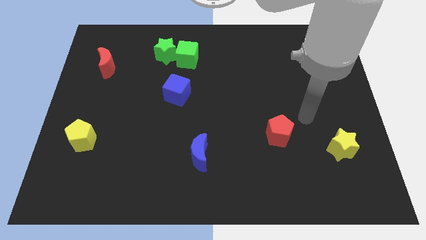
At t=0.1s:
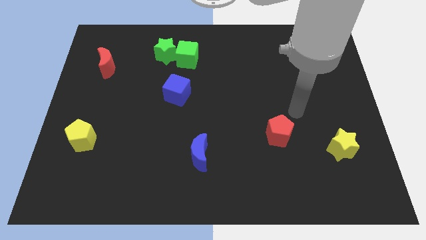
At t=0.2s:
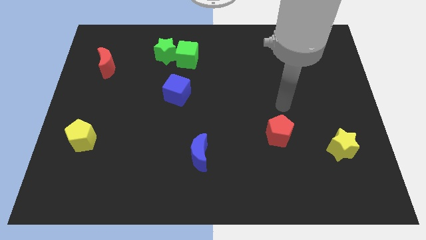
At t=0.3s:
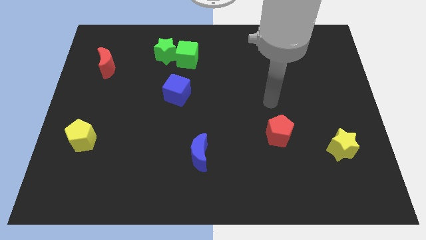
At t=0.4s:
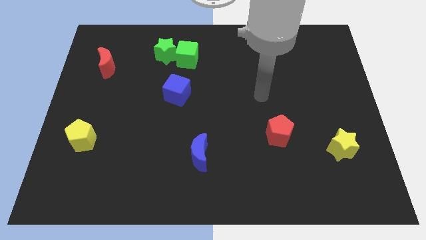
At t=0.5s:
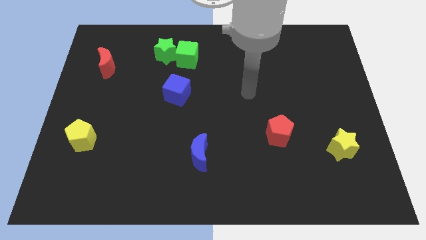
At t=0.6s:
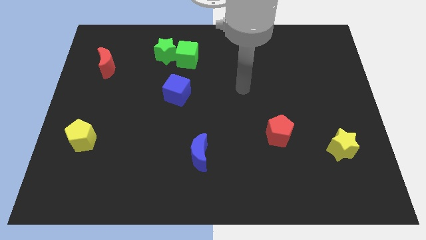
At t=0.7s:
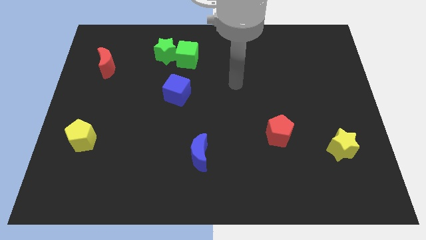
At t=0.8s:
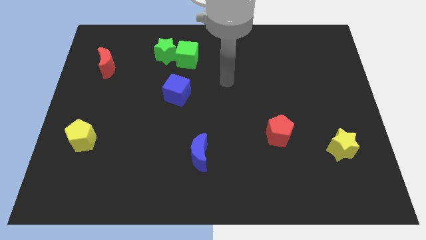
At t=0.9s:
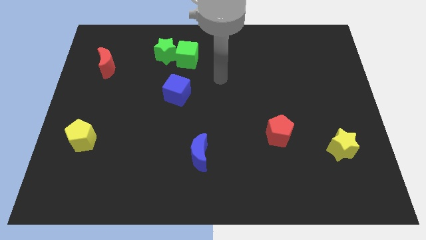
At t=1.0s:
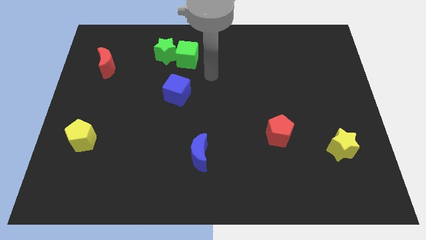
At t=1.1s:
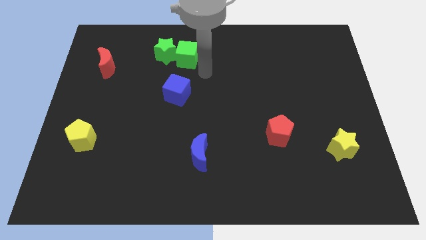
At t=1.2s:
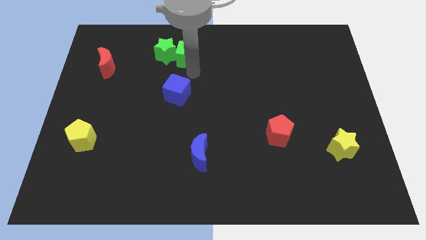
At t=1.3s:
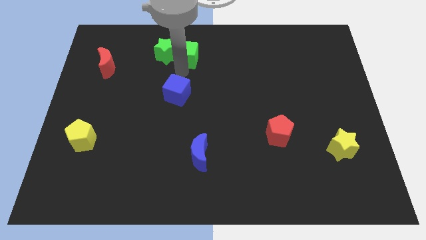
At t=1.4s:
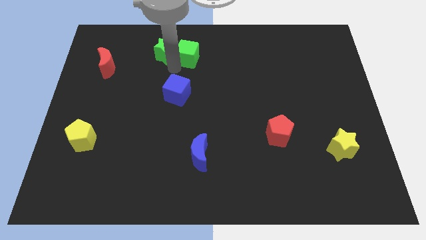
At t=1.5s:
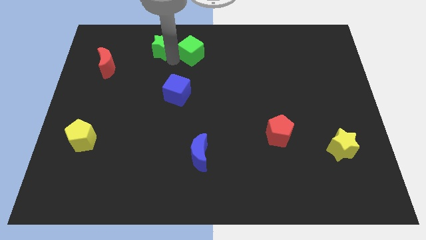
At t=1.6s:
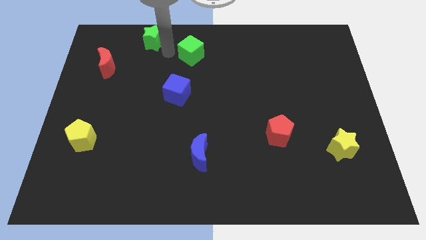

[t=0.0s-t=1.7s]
move the green cube away from the green star

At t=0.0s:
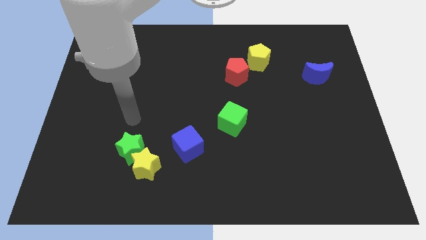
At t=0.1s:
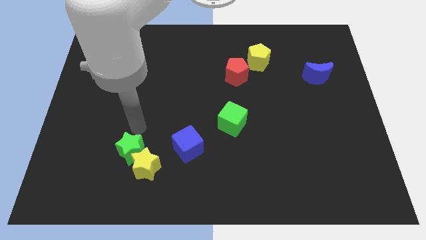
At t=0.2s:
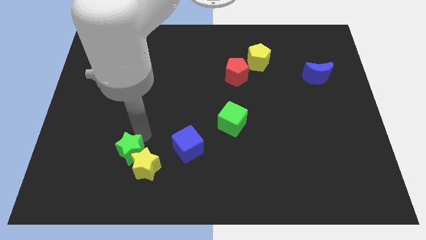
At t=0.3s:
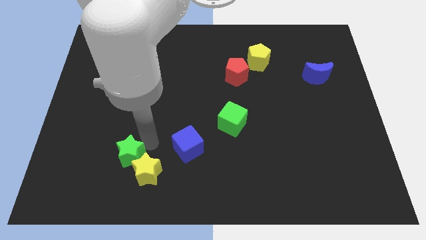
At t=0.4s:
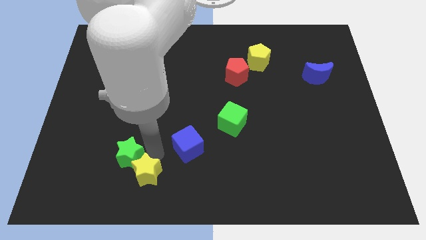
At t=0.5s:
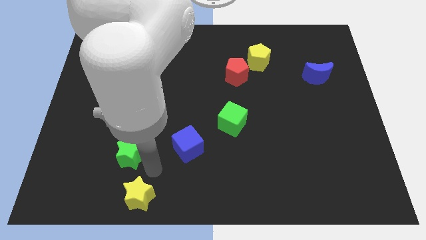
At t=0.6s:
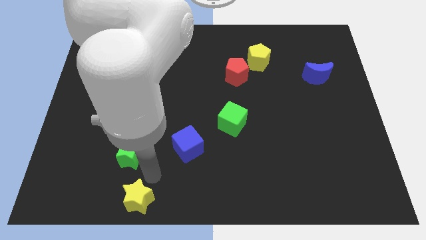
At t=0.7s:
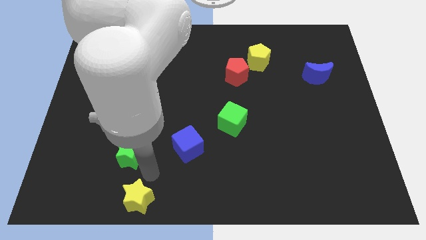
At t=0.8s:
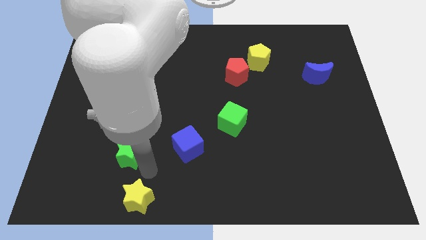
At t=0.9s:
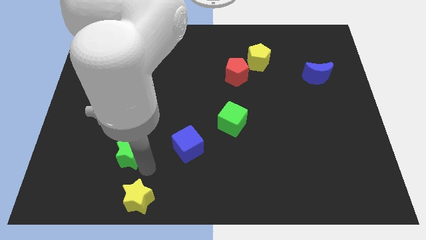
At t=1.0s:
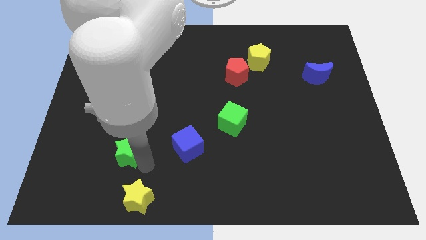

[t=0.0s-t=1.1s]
move the green star away from the yellow star

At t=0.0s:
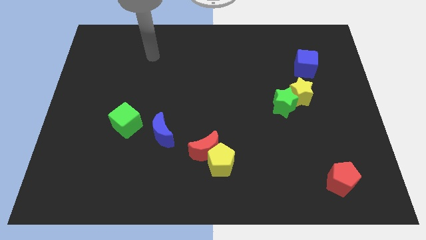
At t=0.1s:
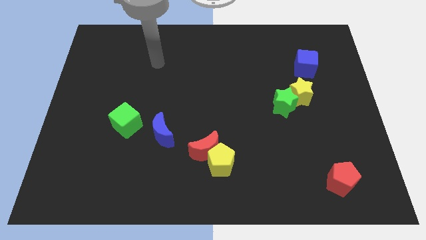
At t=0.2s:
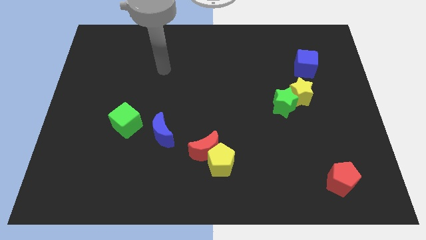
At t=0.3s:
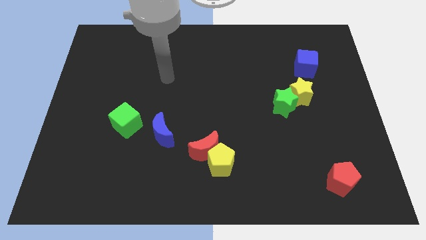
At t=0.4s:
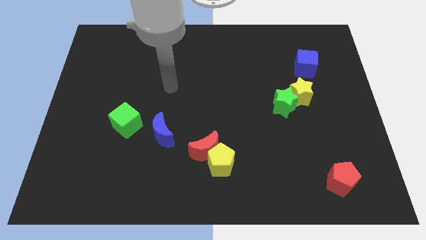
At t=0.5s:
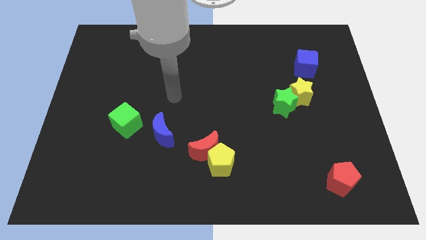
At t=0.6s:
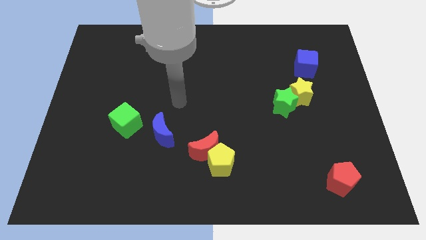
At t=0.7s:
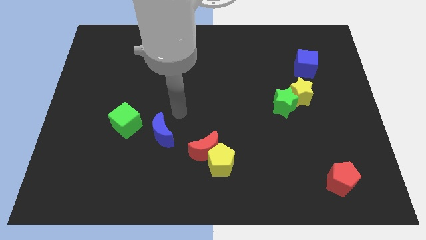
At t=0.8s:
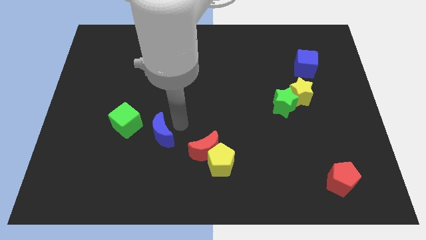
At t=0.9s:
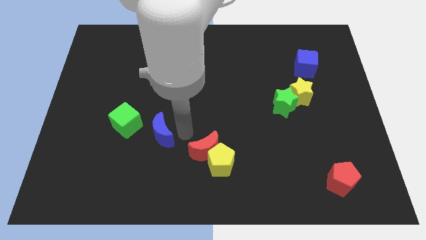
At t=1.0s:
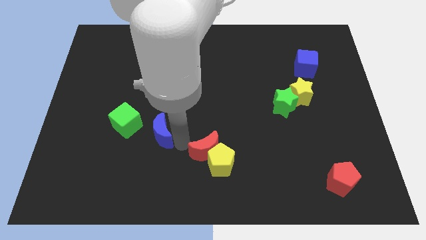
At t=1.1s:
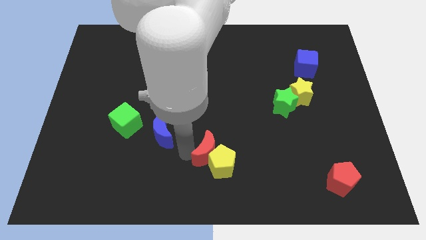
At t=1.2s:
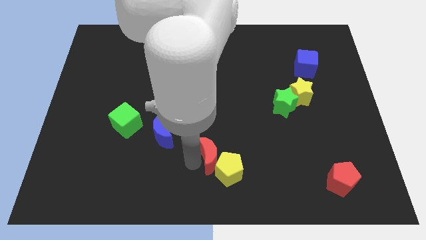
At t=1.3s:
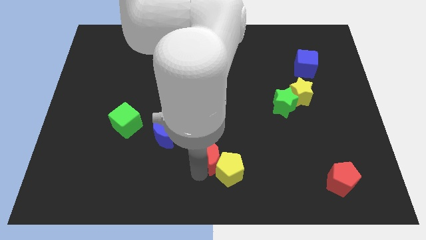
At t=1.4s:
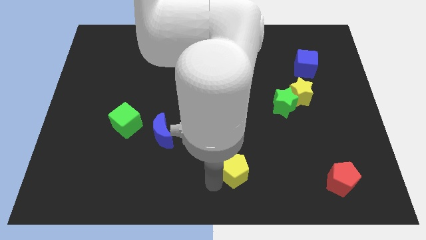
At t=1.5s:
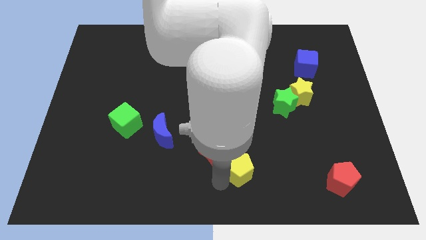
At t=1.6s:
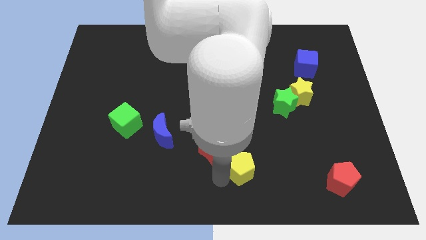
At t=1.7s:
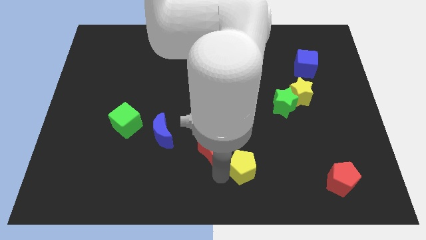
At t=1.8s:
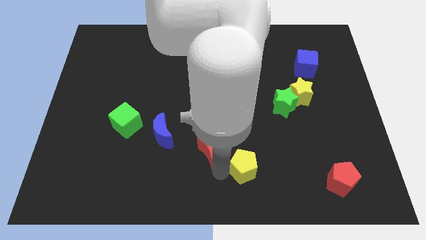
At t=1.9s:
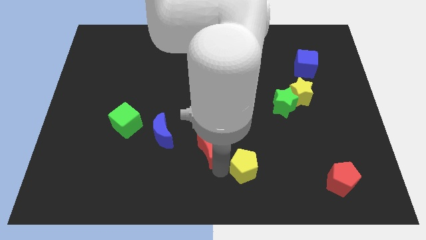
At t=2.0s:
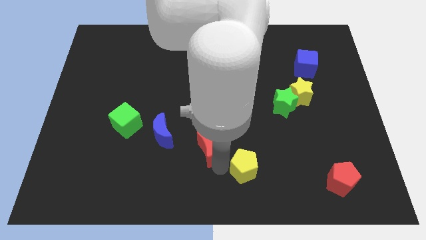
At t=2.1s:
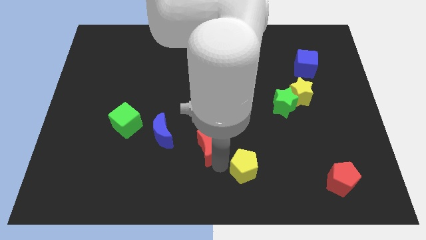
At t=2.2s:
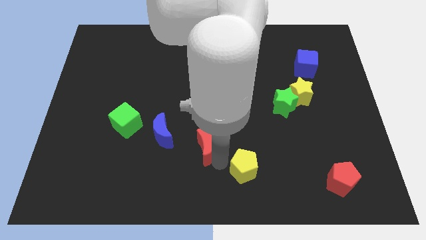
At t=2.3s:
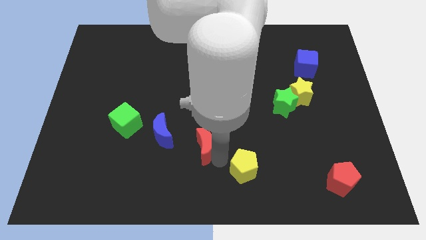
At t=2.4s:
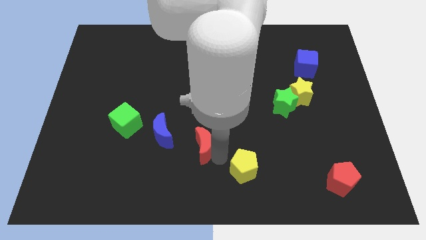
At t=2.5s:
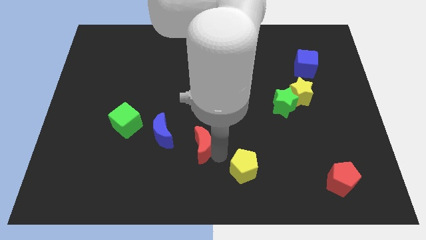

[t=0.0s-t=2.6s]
move the red moon away from the yellow pentagon

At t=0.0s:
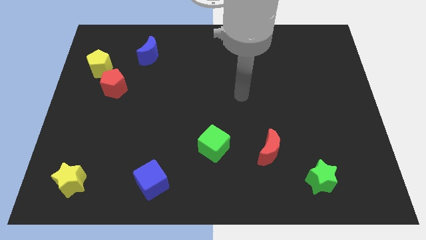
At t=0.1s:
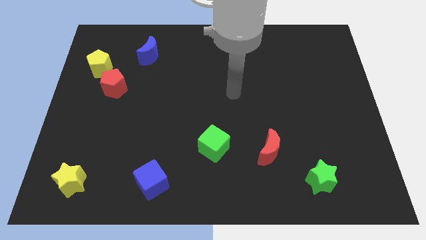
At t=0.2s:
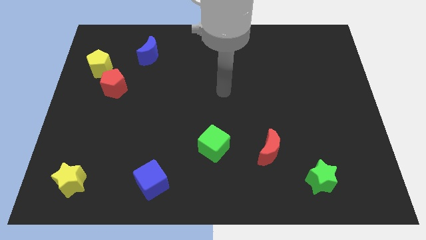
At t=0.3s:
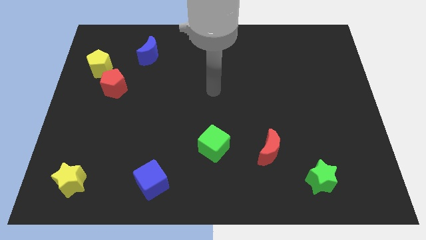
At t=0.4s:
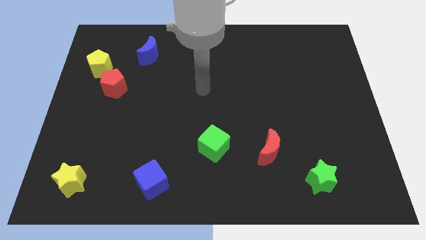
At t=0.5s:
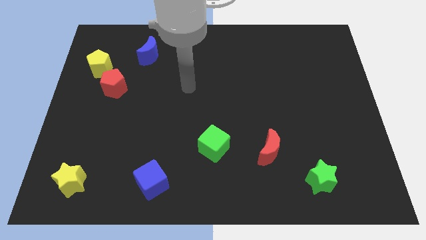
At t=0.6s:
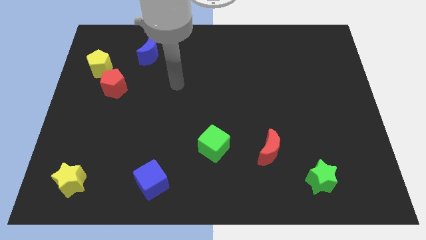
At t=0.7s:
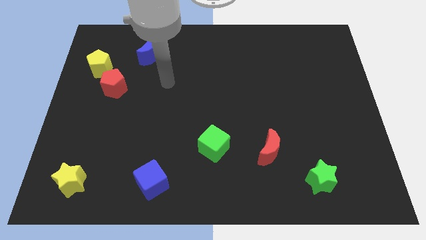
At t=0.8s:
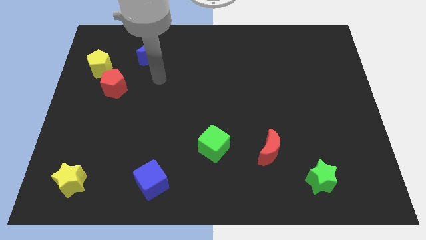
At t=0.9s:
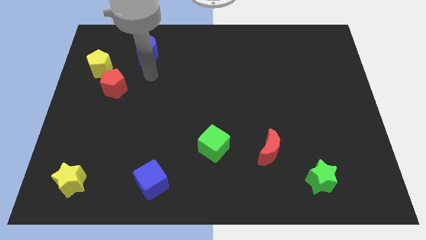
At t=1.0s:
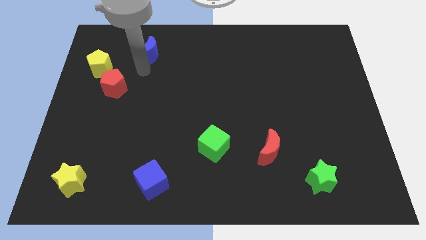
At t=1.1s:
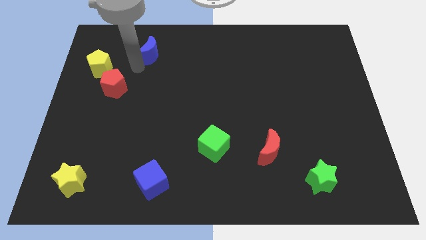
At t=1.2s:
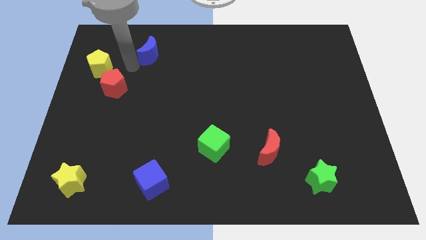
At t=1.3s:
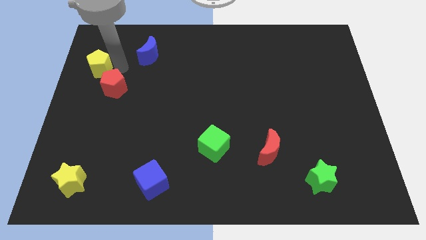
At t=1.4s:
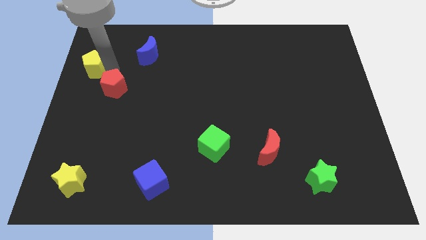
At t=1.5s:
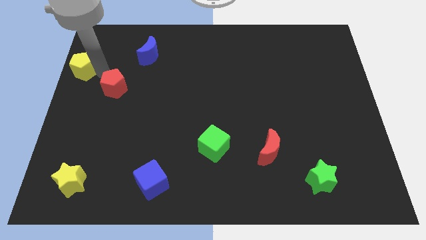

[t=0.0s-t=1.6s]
pull the red pentagon apart from the yellow pentagon

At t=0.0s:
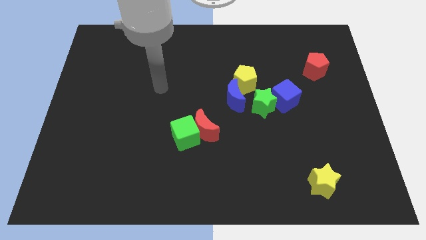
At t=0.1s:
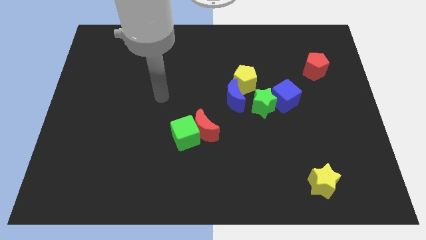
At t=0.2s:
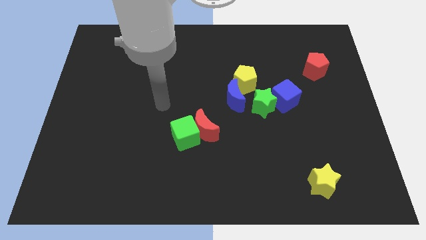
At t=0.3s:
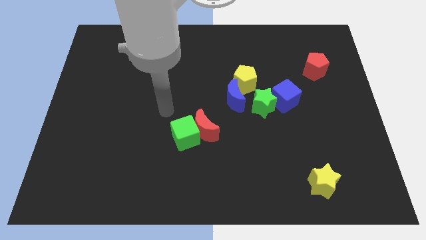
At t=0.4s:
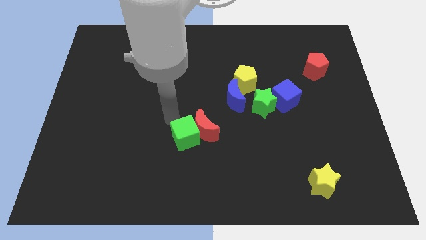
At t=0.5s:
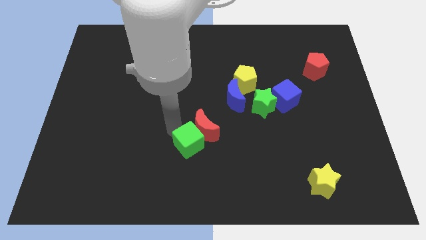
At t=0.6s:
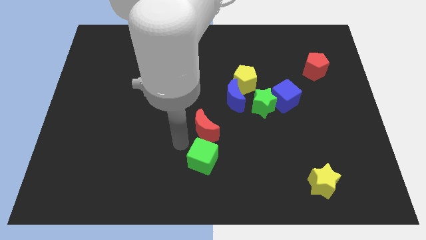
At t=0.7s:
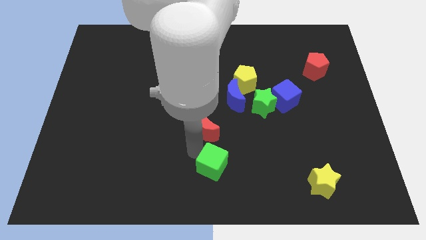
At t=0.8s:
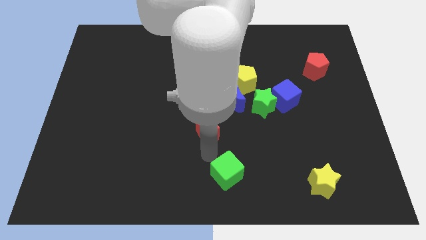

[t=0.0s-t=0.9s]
separate the red moon from the green cube

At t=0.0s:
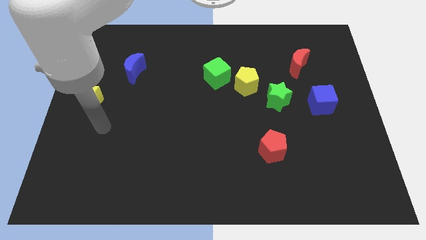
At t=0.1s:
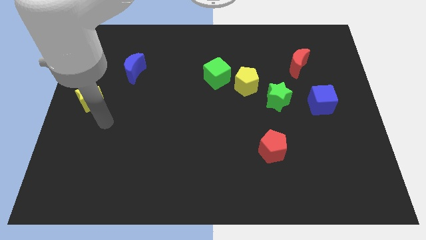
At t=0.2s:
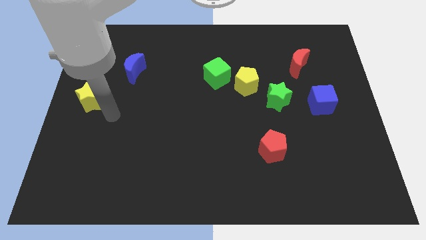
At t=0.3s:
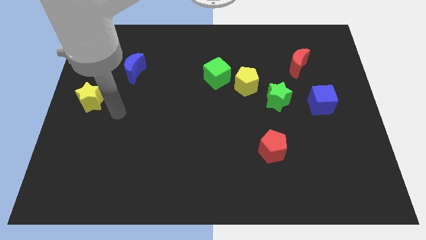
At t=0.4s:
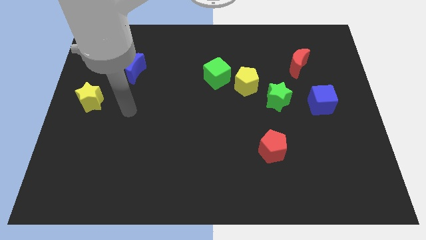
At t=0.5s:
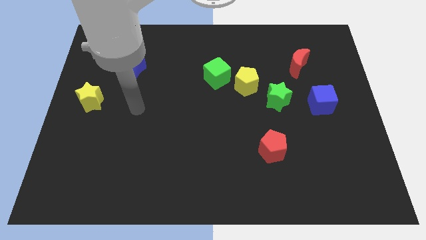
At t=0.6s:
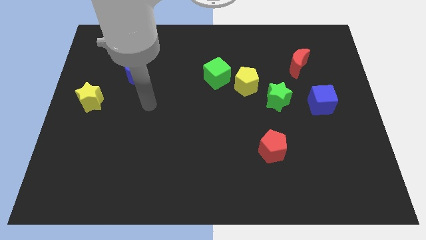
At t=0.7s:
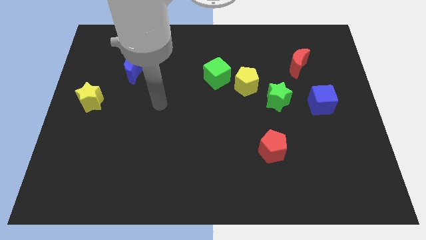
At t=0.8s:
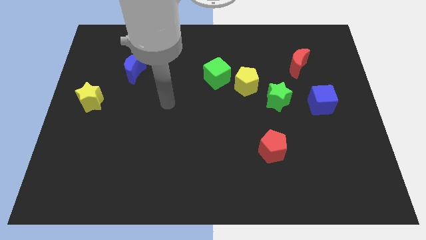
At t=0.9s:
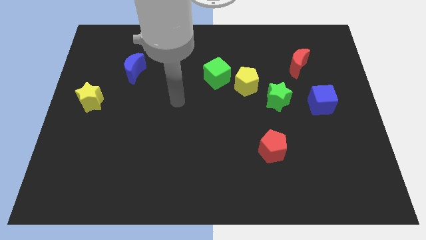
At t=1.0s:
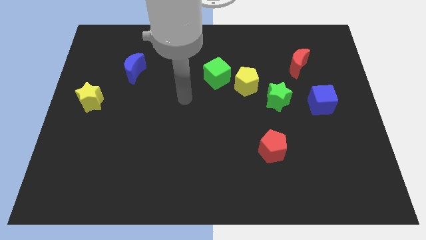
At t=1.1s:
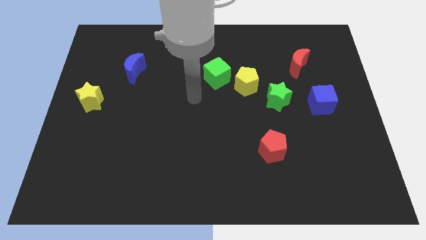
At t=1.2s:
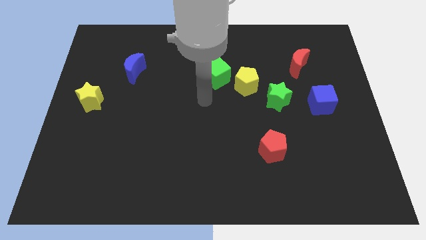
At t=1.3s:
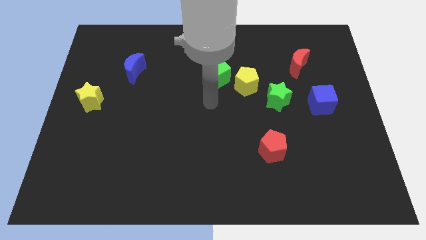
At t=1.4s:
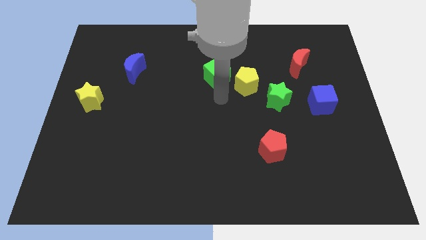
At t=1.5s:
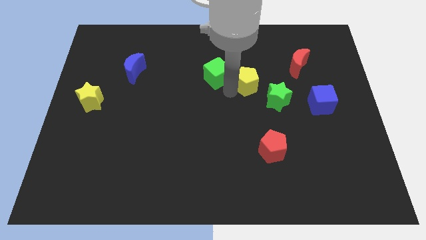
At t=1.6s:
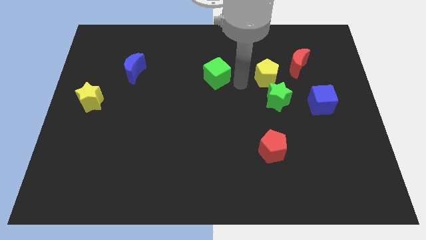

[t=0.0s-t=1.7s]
pull the green cube apart from the yellow pentagon
